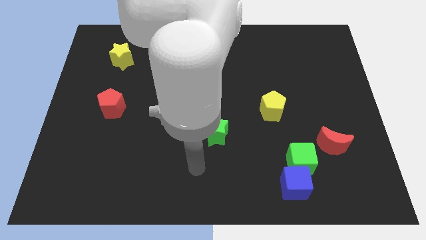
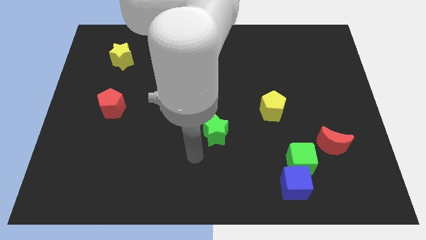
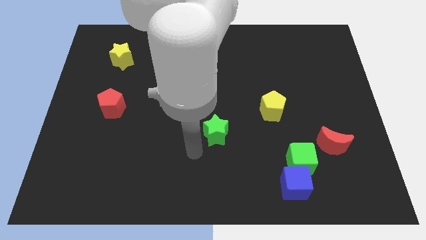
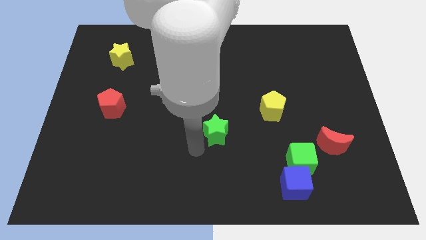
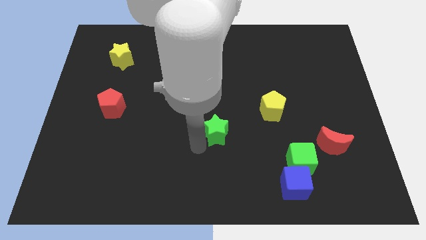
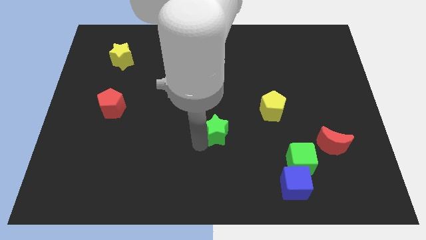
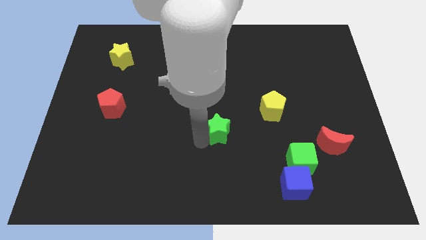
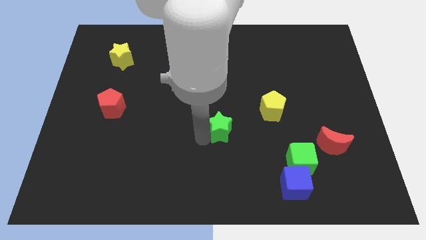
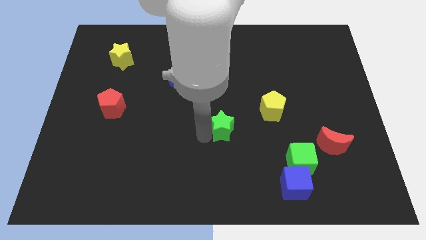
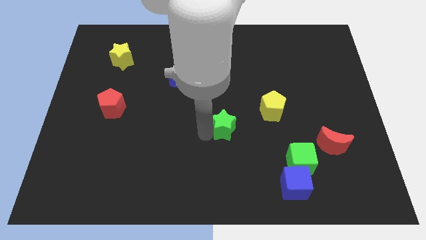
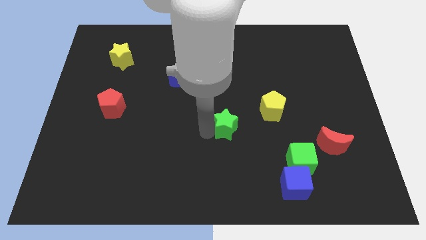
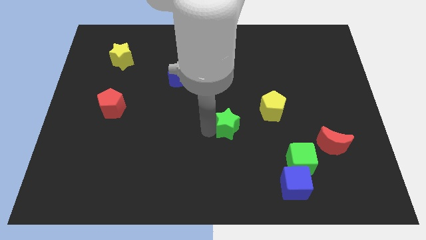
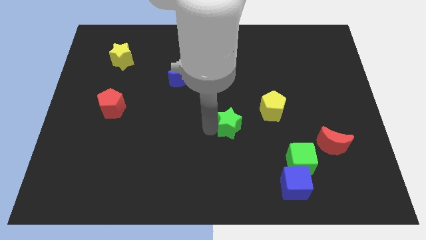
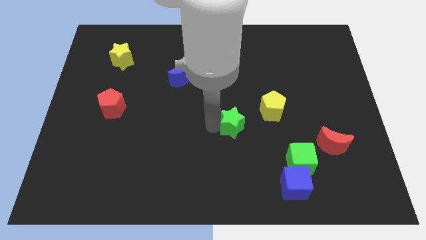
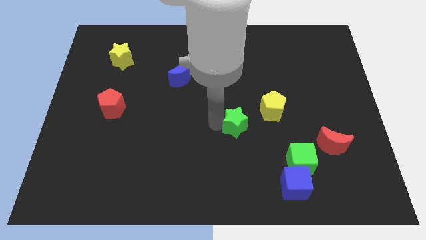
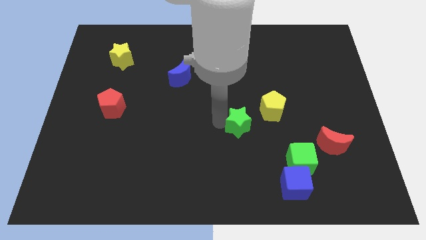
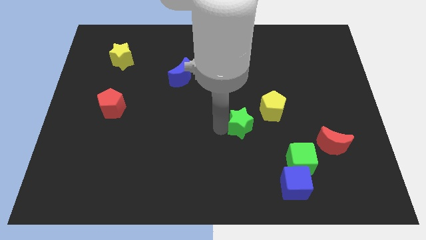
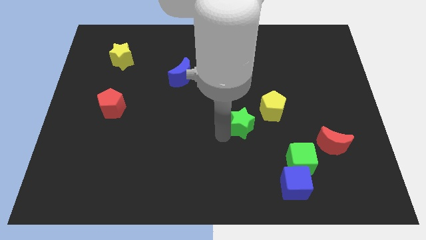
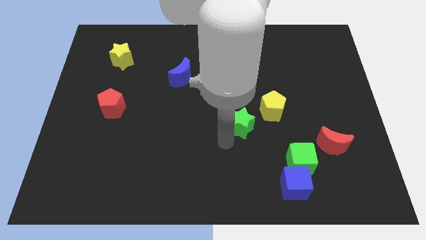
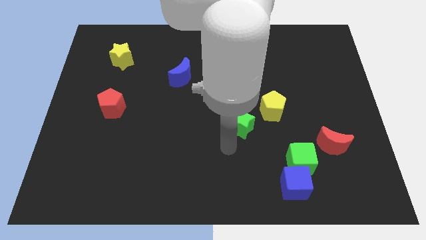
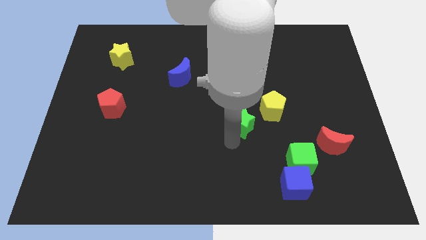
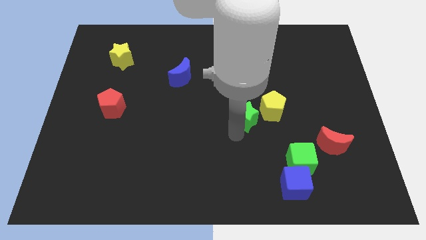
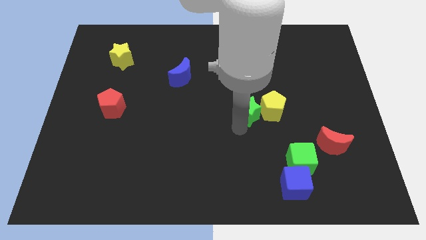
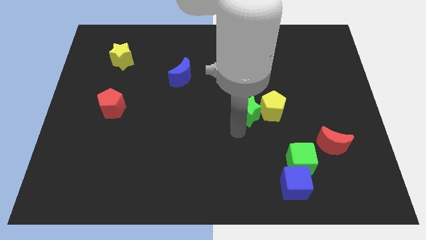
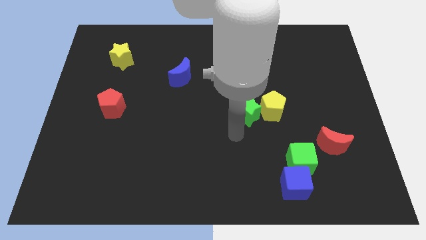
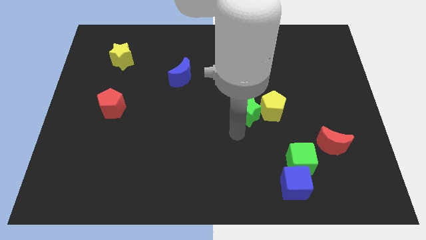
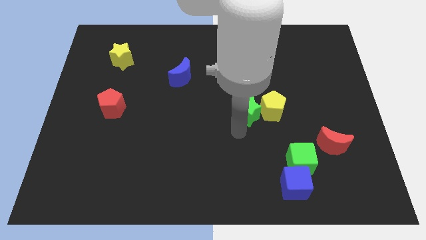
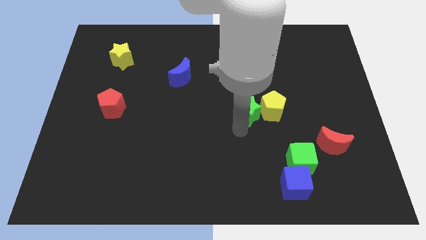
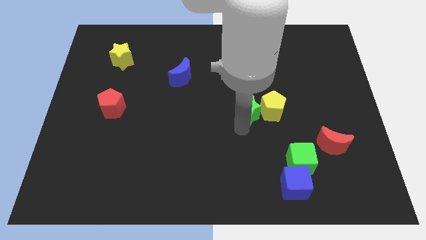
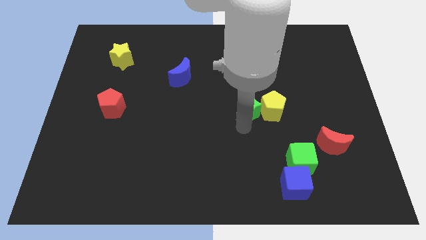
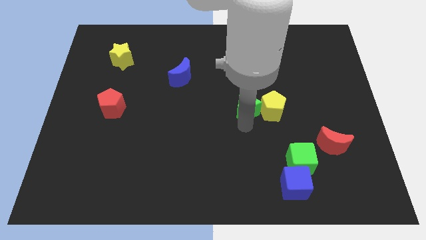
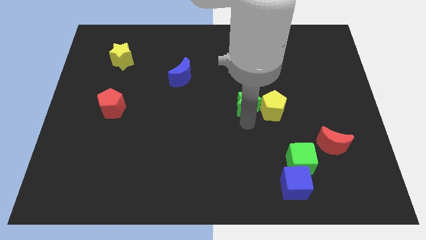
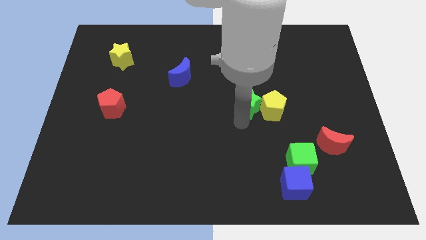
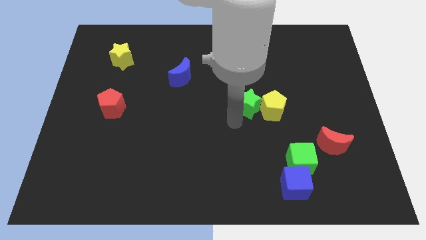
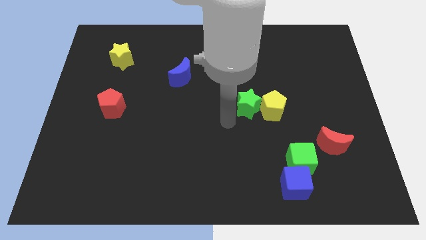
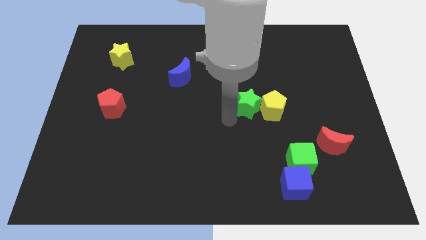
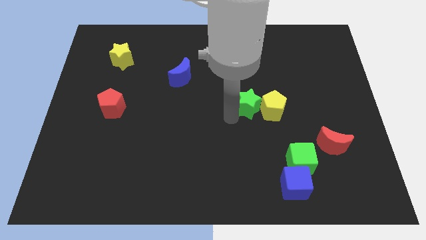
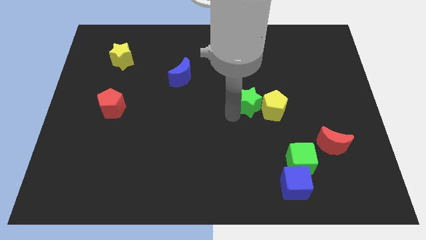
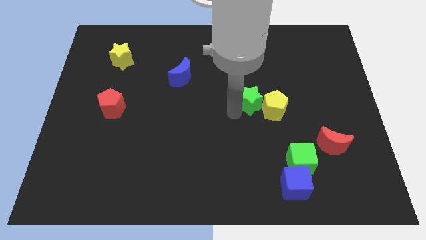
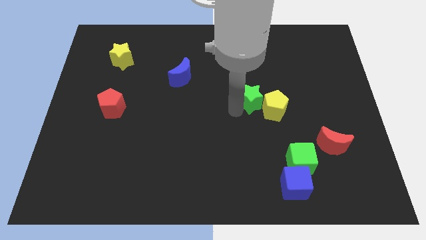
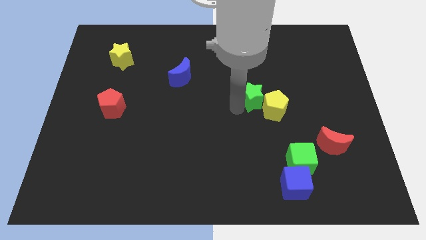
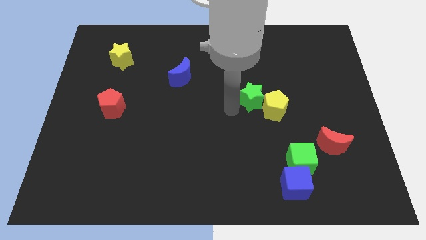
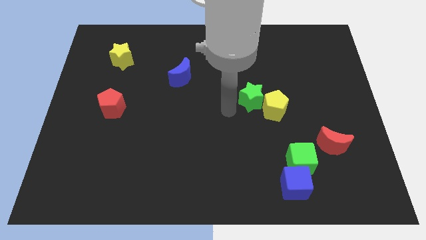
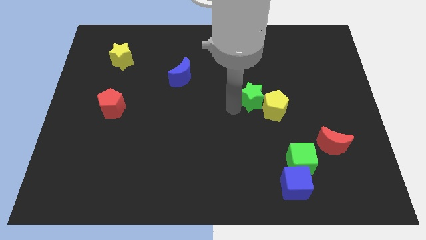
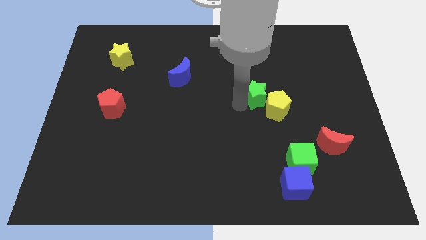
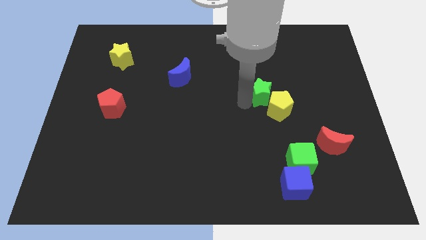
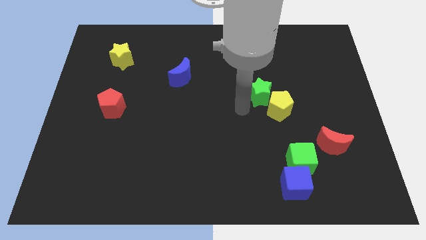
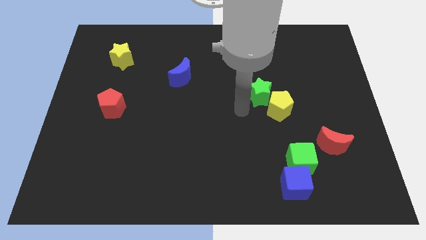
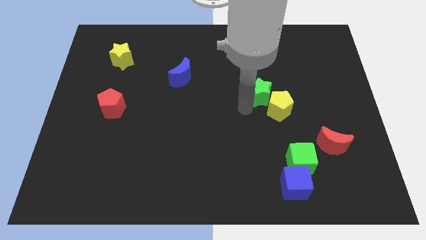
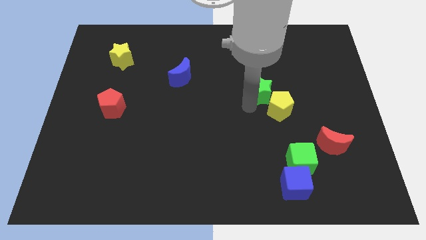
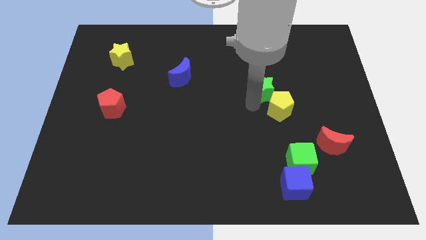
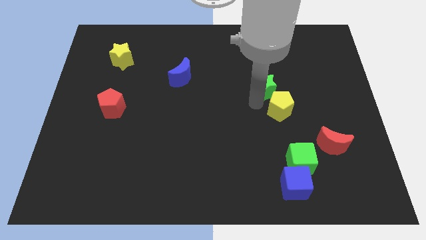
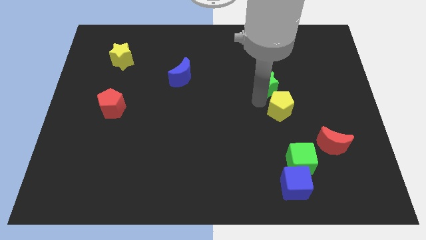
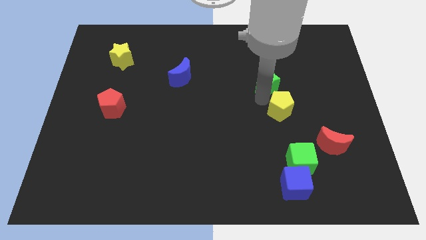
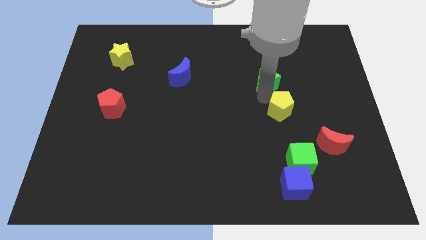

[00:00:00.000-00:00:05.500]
slide the green star diagonally upwards and to the right

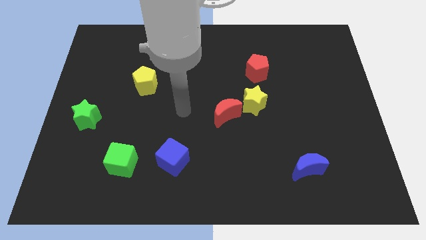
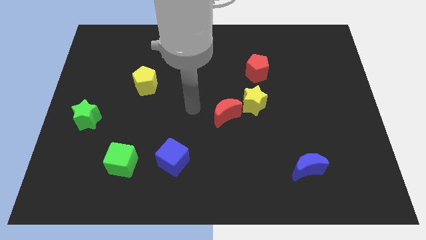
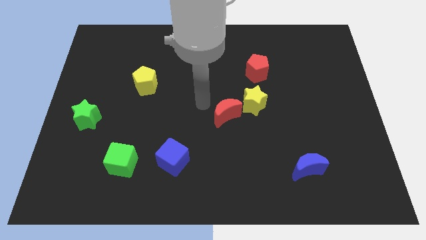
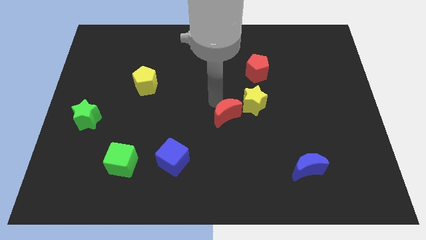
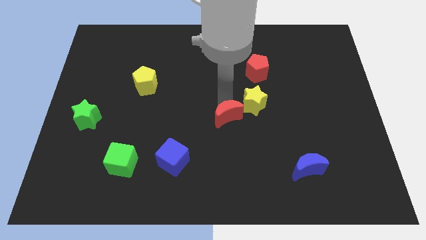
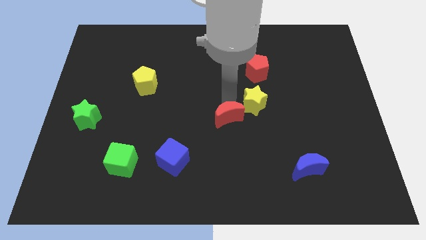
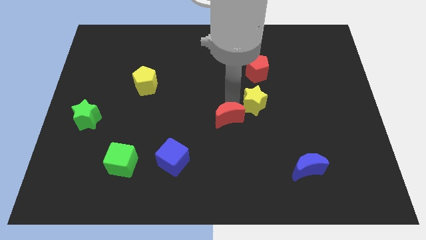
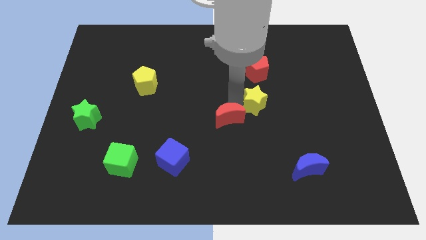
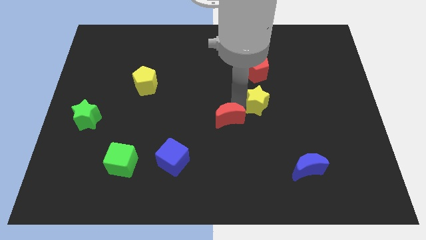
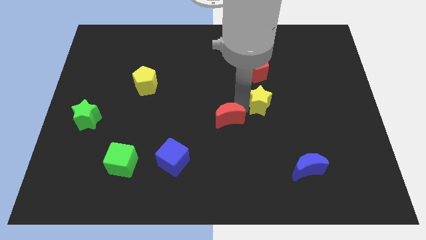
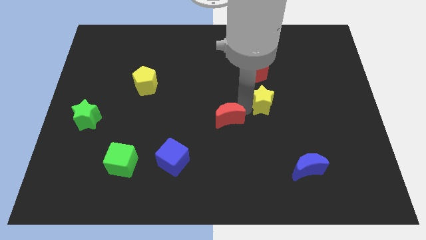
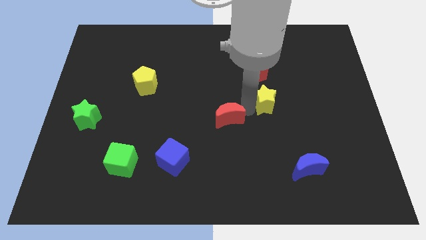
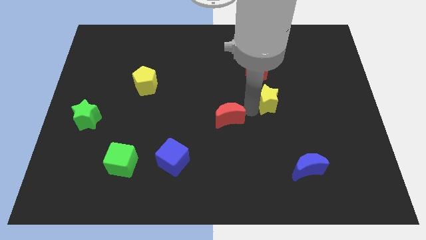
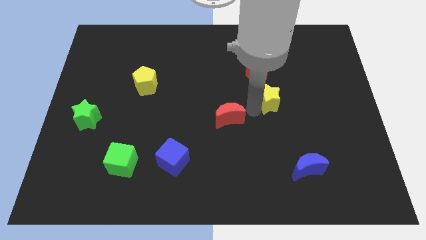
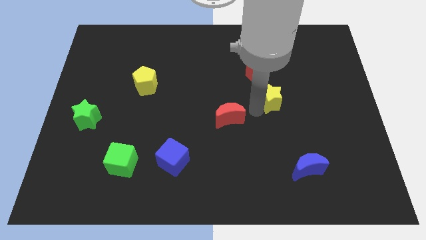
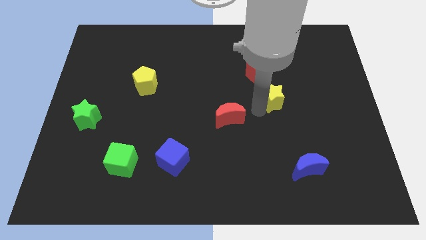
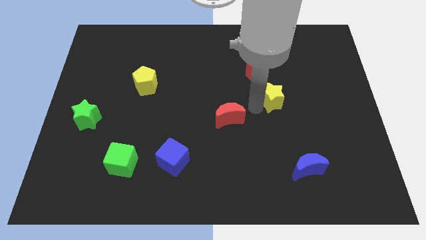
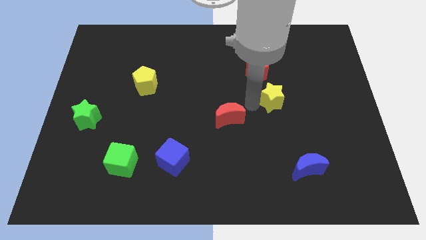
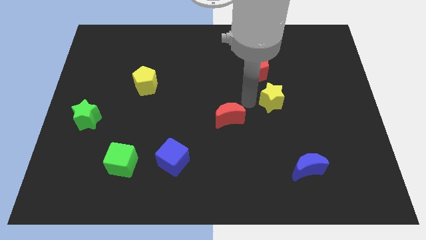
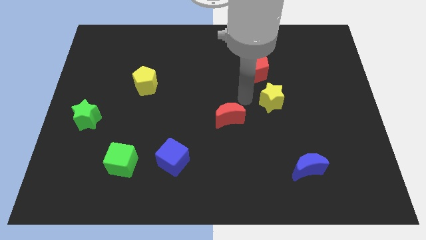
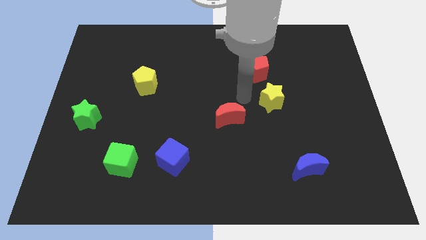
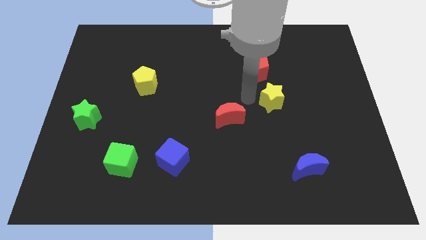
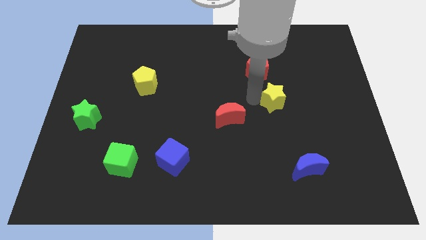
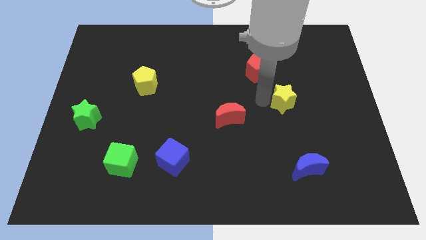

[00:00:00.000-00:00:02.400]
push the yellow star right slightly
